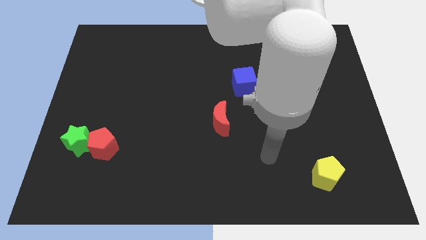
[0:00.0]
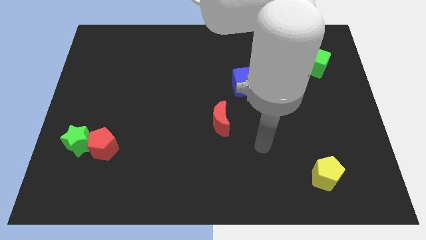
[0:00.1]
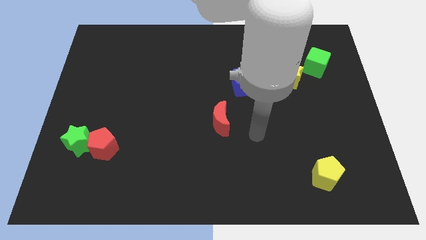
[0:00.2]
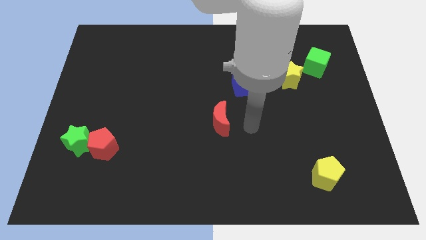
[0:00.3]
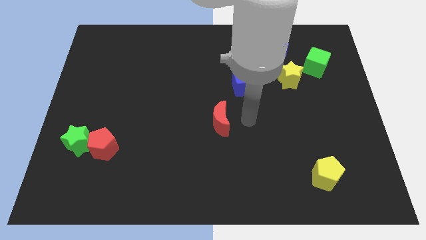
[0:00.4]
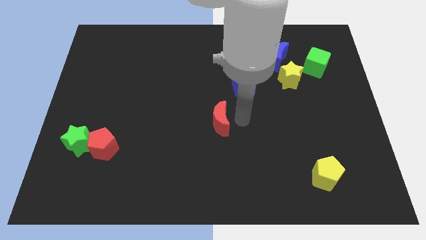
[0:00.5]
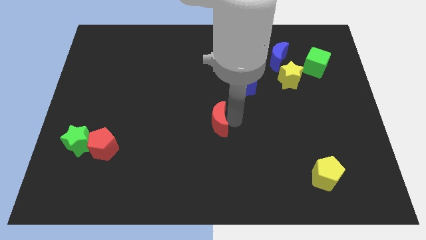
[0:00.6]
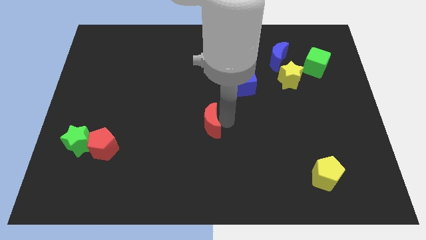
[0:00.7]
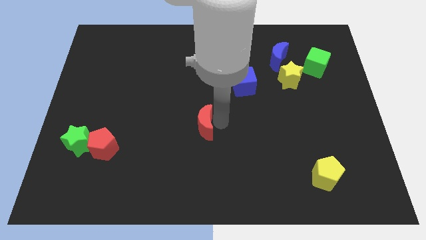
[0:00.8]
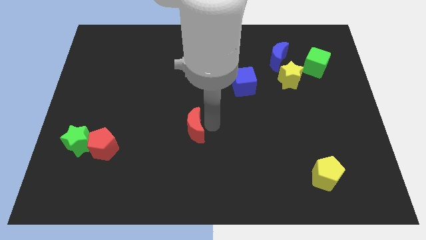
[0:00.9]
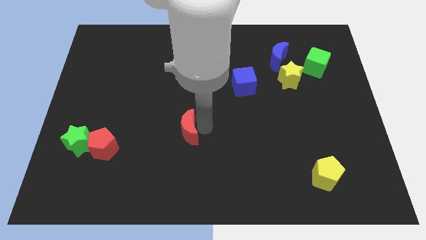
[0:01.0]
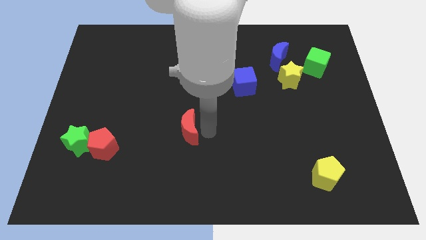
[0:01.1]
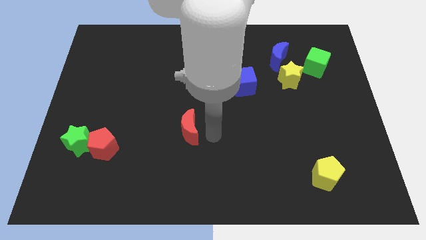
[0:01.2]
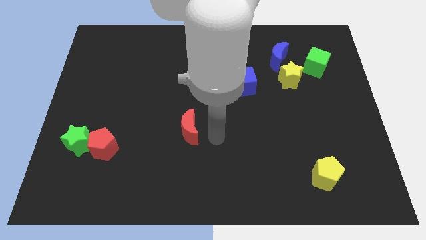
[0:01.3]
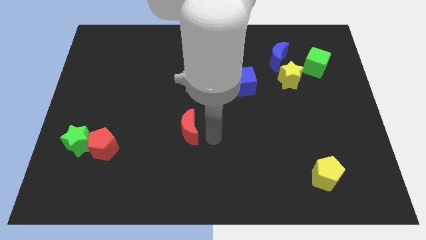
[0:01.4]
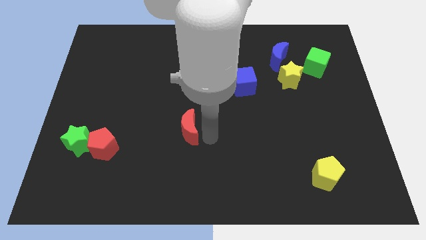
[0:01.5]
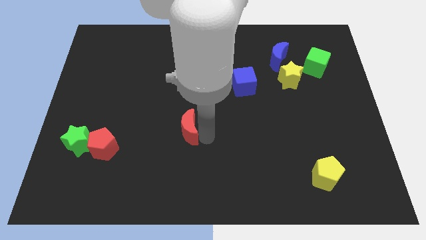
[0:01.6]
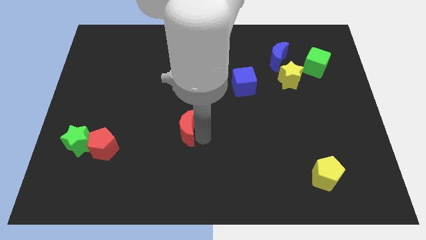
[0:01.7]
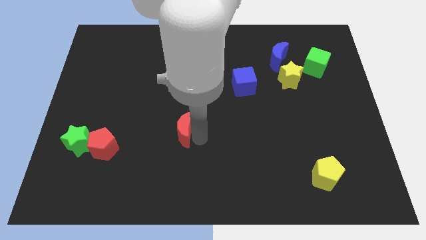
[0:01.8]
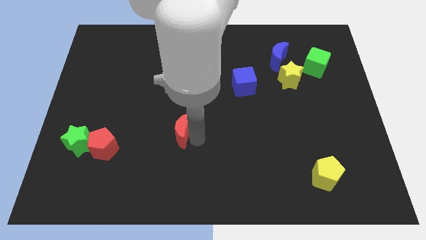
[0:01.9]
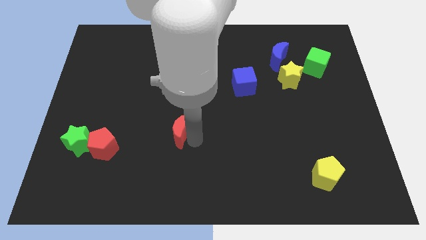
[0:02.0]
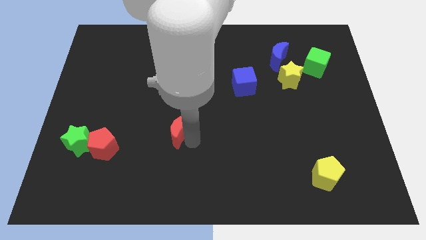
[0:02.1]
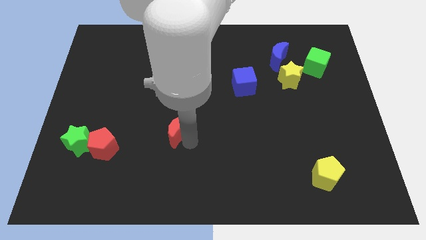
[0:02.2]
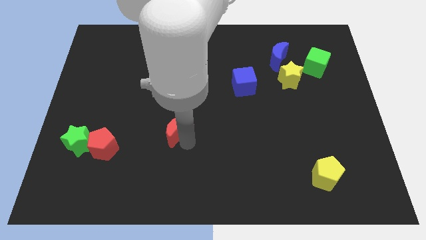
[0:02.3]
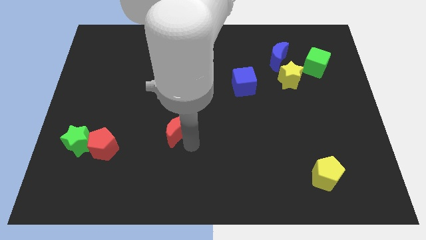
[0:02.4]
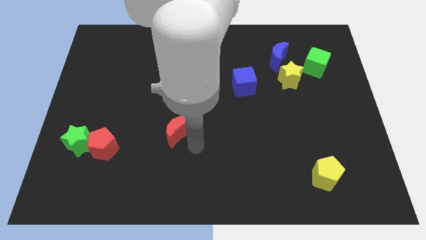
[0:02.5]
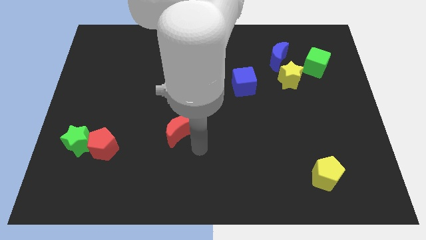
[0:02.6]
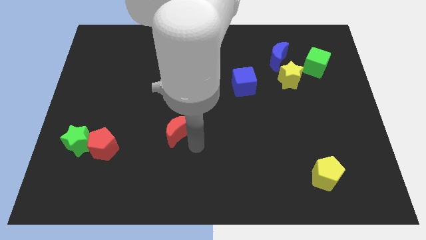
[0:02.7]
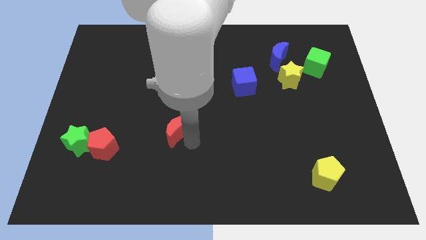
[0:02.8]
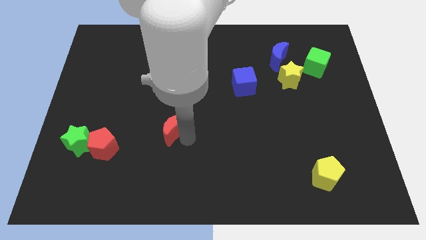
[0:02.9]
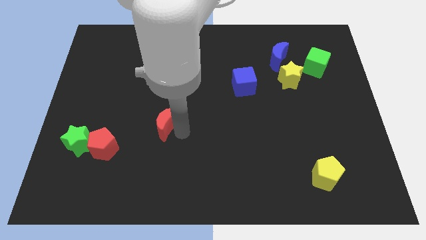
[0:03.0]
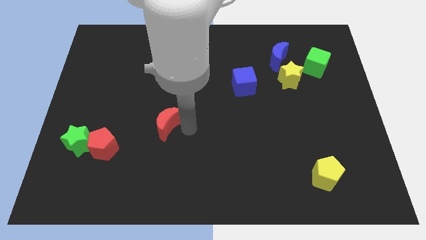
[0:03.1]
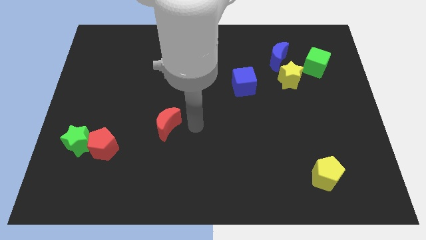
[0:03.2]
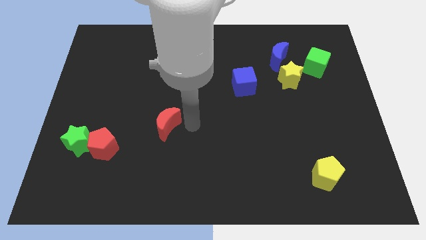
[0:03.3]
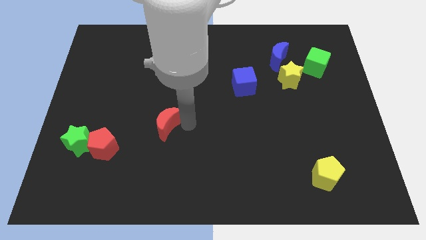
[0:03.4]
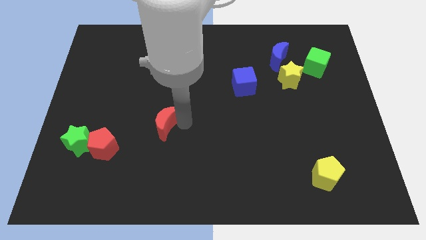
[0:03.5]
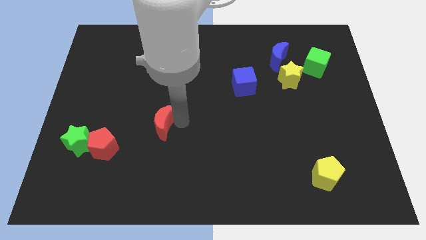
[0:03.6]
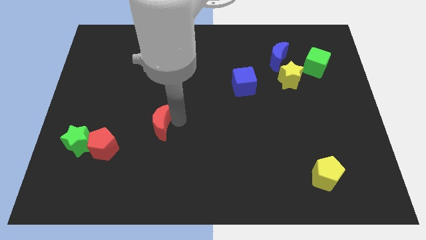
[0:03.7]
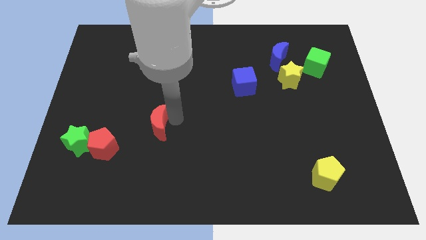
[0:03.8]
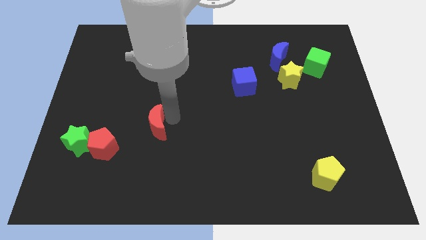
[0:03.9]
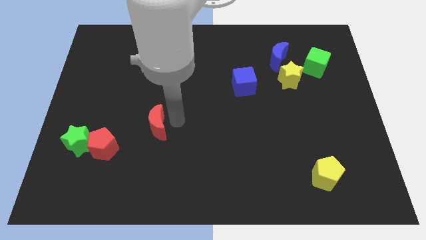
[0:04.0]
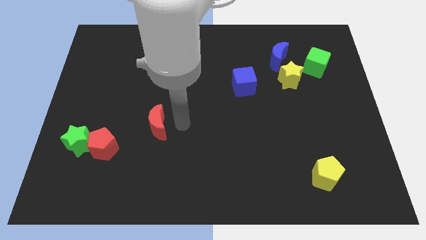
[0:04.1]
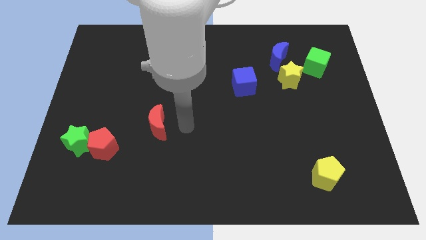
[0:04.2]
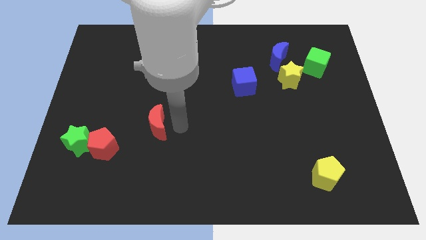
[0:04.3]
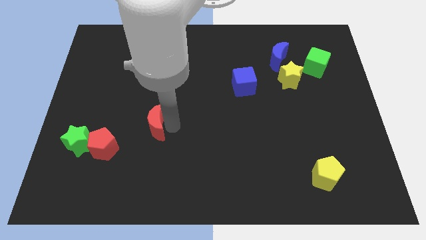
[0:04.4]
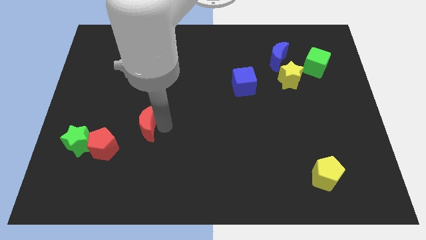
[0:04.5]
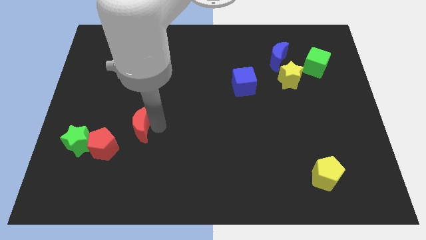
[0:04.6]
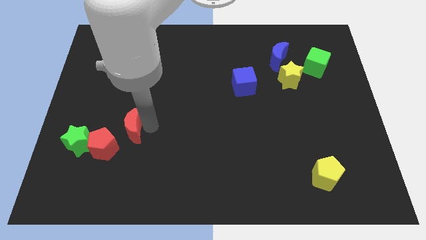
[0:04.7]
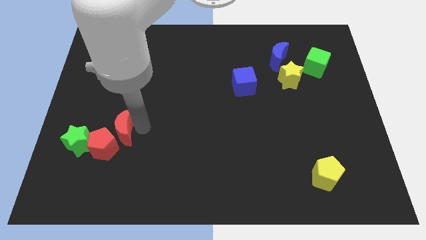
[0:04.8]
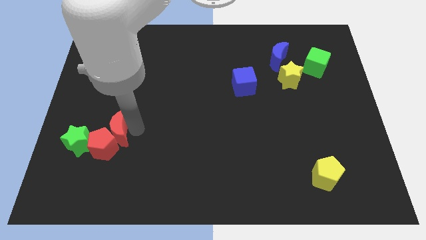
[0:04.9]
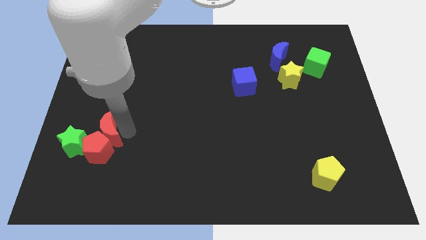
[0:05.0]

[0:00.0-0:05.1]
put the red moon to the top left side of the red pentagon

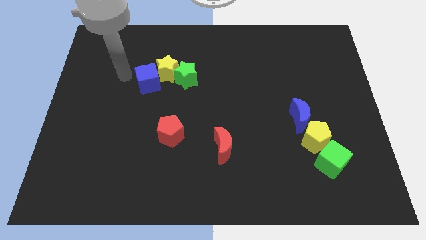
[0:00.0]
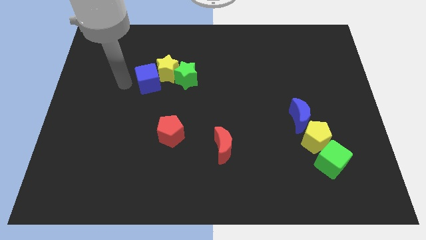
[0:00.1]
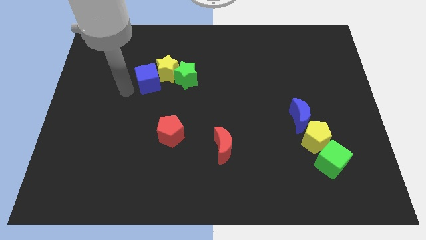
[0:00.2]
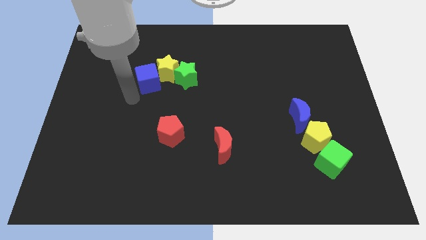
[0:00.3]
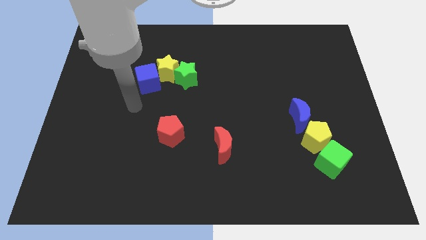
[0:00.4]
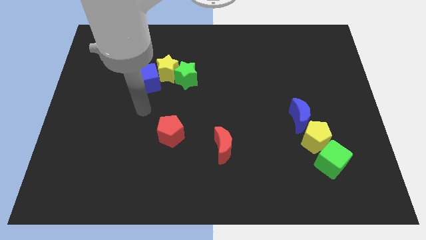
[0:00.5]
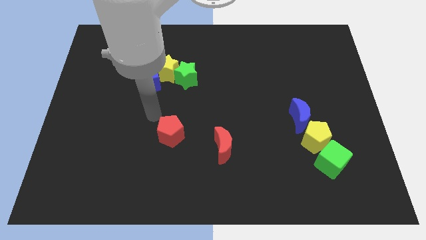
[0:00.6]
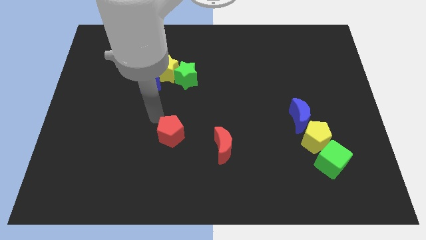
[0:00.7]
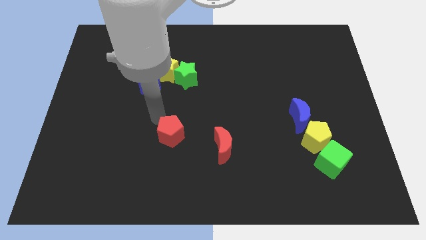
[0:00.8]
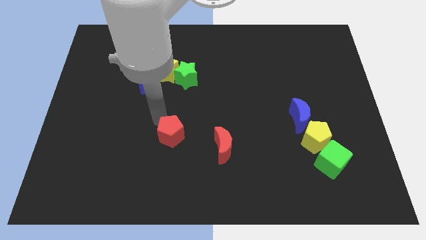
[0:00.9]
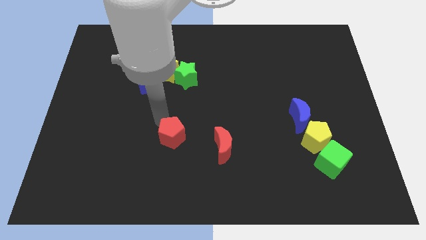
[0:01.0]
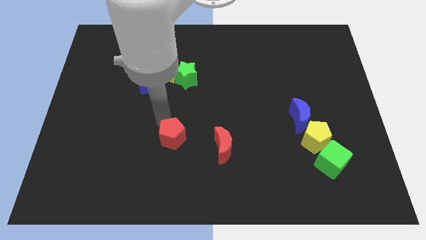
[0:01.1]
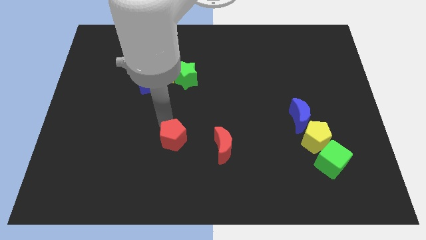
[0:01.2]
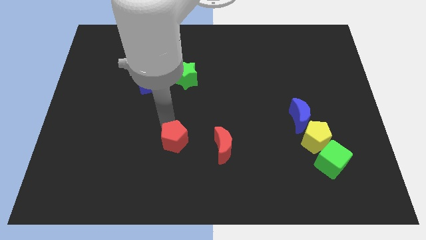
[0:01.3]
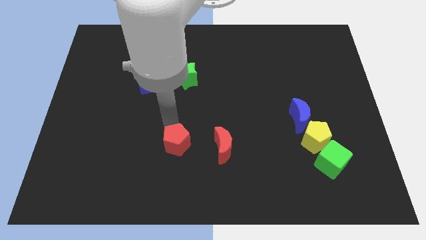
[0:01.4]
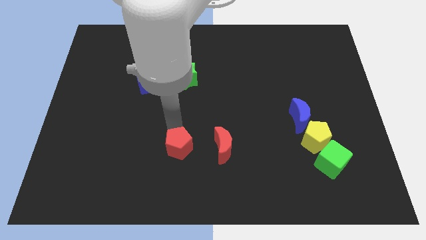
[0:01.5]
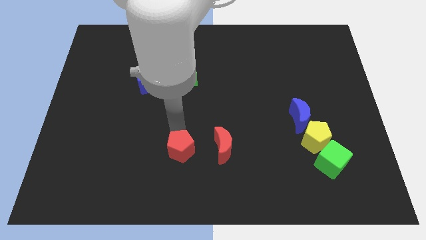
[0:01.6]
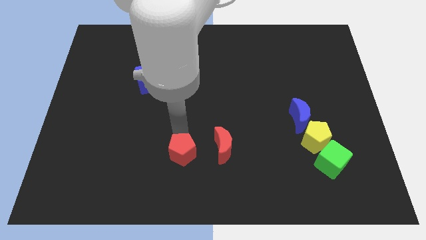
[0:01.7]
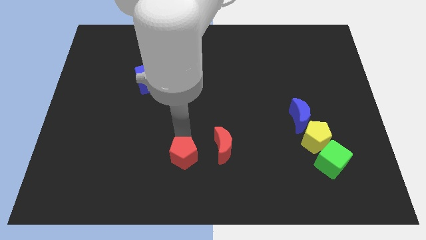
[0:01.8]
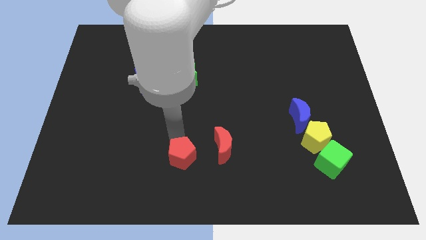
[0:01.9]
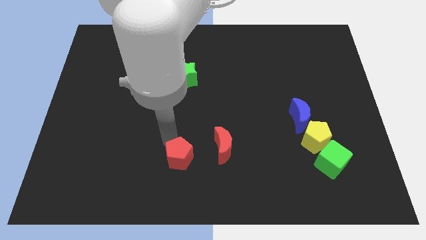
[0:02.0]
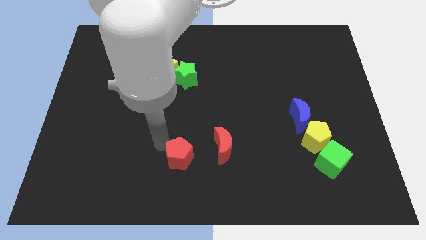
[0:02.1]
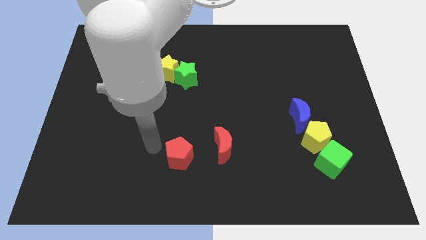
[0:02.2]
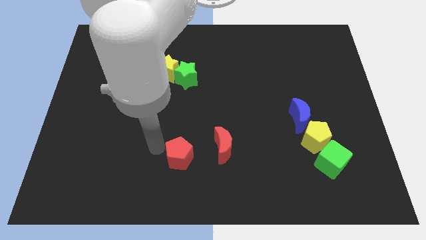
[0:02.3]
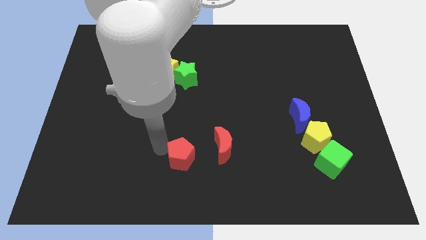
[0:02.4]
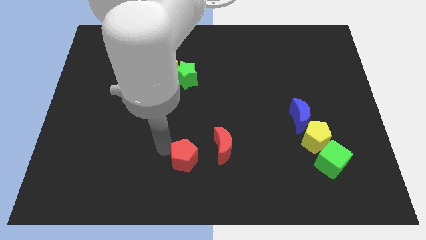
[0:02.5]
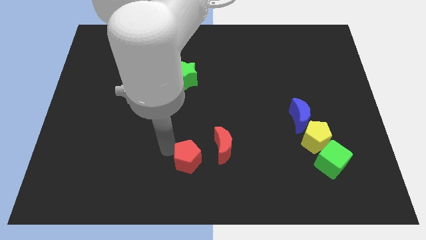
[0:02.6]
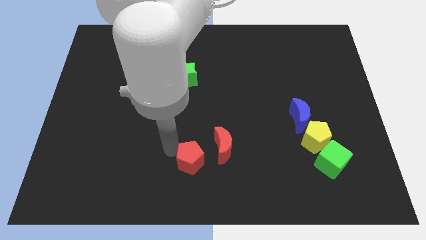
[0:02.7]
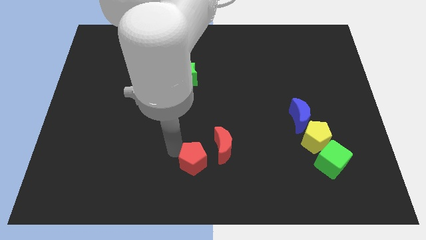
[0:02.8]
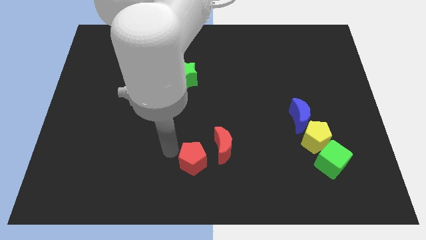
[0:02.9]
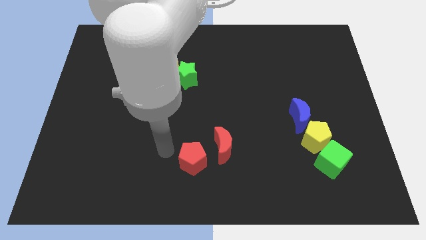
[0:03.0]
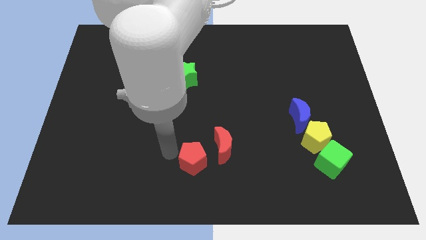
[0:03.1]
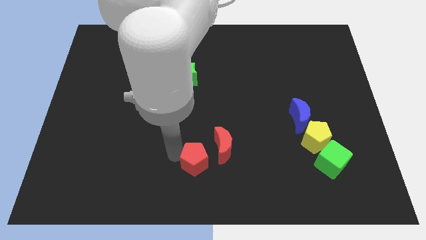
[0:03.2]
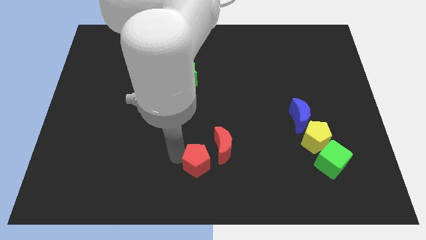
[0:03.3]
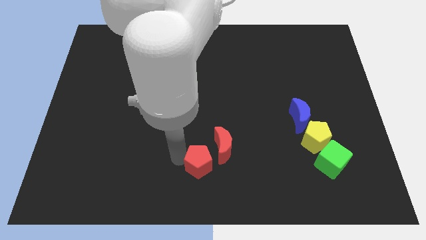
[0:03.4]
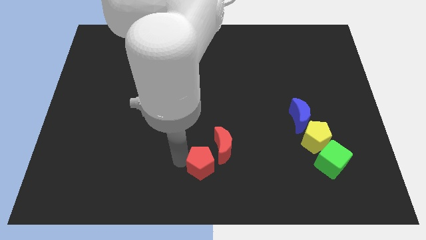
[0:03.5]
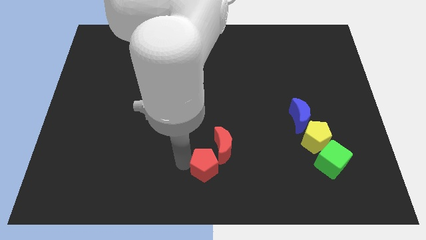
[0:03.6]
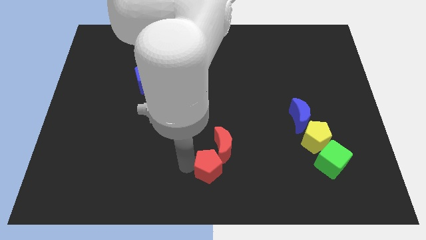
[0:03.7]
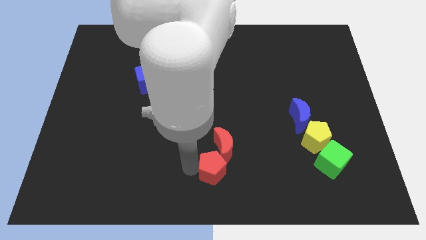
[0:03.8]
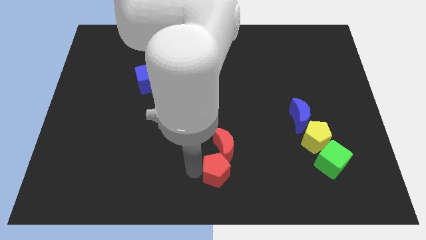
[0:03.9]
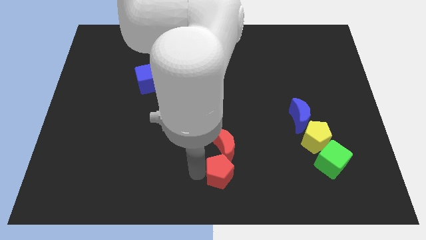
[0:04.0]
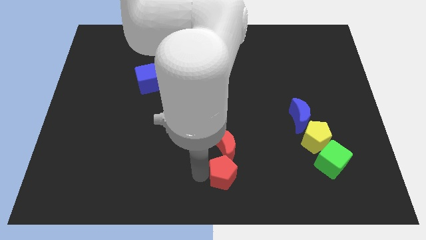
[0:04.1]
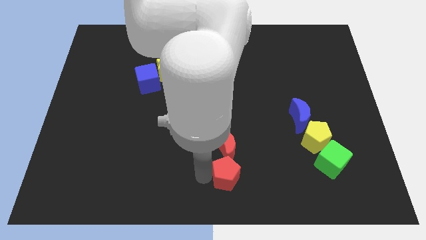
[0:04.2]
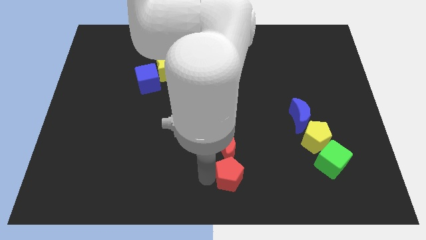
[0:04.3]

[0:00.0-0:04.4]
move the red pentagon to the bottom right side of the red moon
